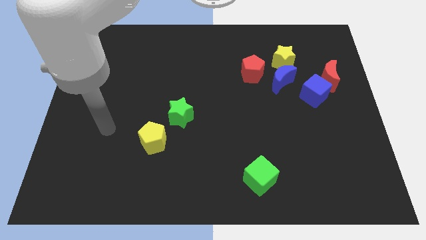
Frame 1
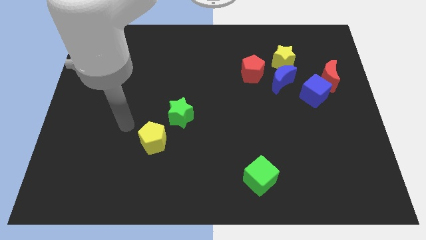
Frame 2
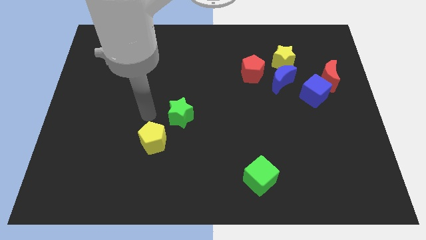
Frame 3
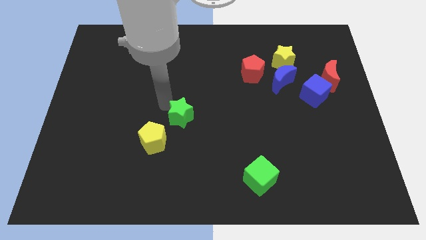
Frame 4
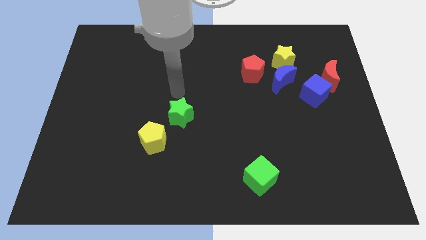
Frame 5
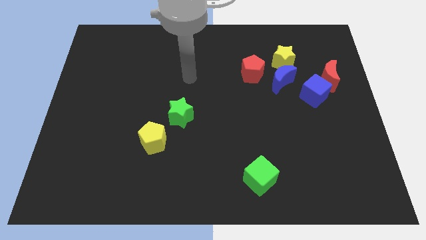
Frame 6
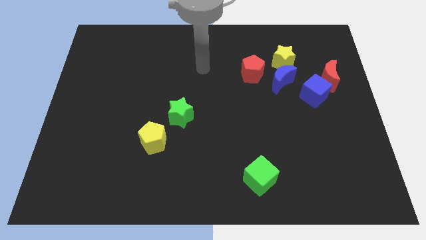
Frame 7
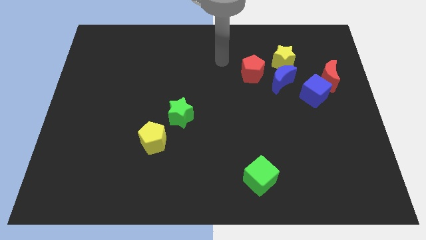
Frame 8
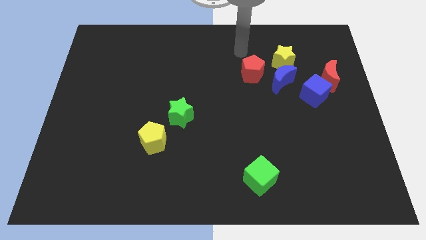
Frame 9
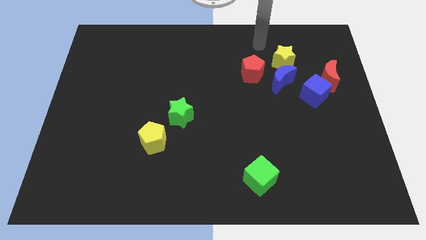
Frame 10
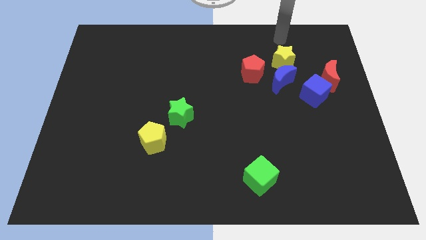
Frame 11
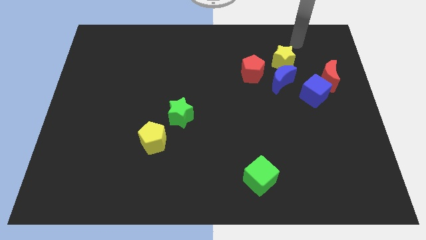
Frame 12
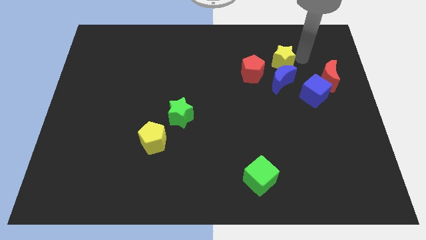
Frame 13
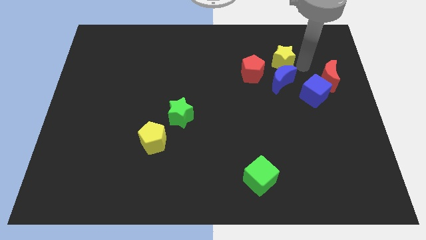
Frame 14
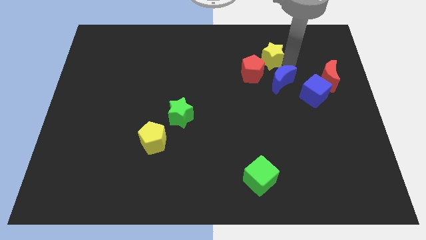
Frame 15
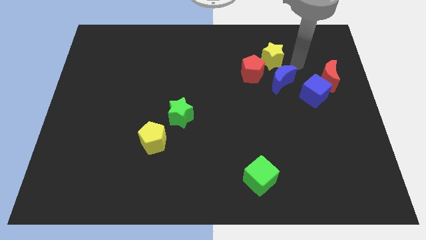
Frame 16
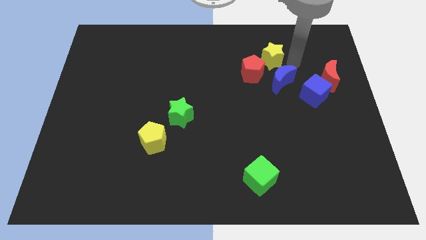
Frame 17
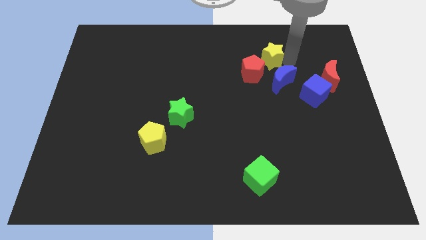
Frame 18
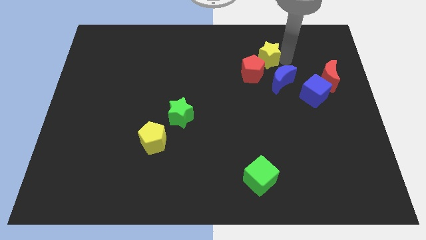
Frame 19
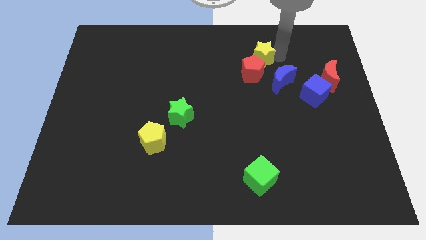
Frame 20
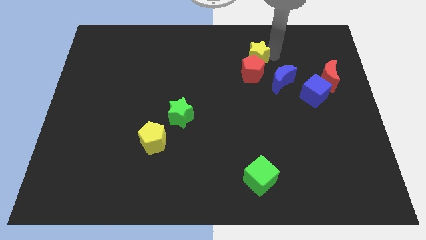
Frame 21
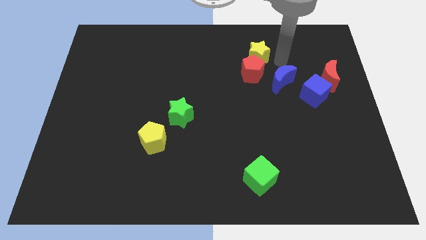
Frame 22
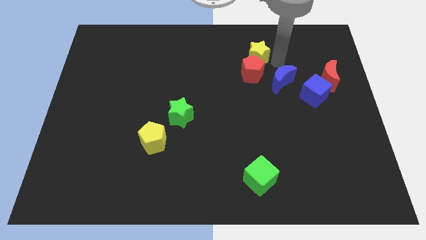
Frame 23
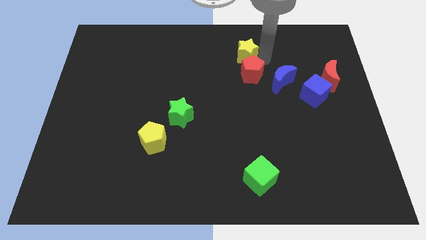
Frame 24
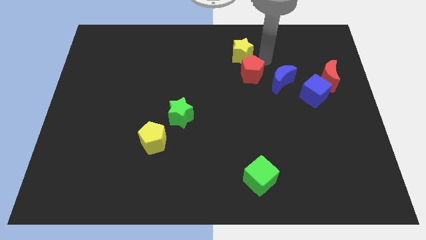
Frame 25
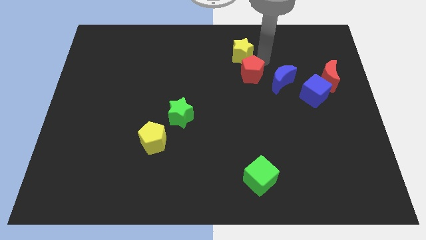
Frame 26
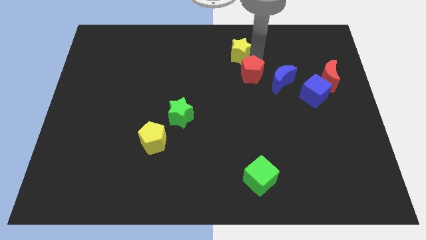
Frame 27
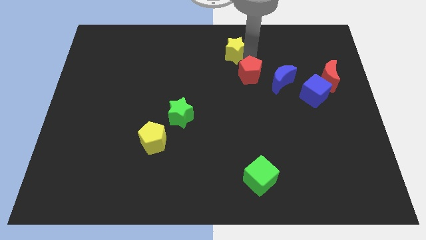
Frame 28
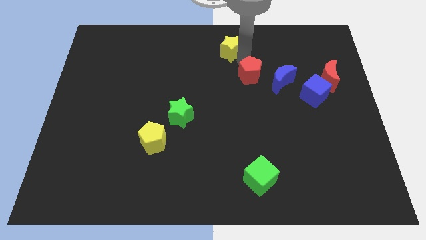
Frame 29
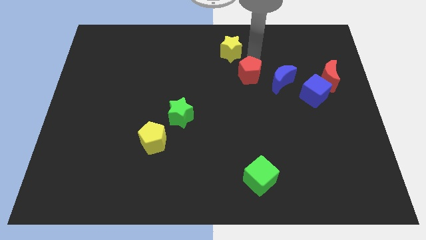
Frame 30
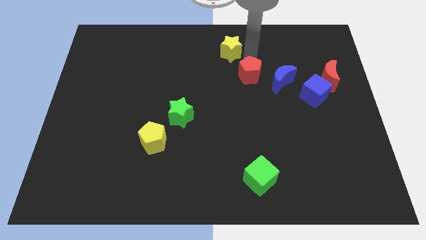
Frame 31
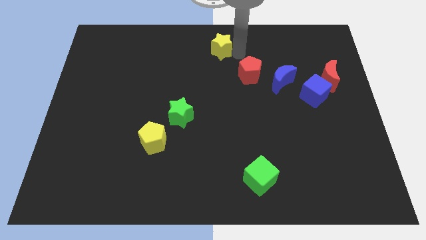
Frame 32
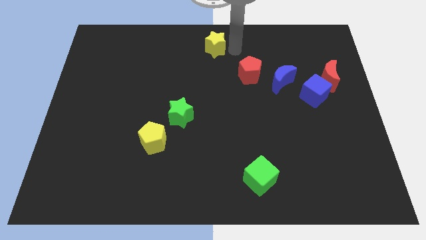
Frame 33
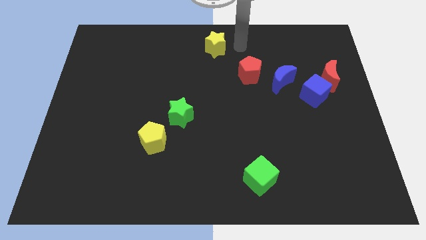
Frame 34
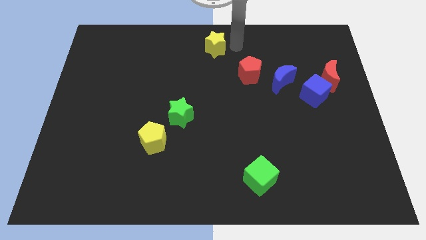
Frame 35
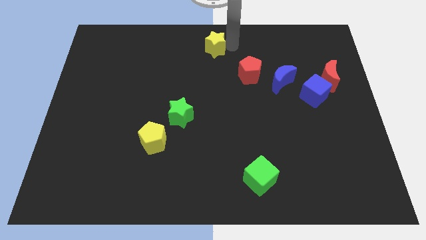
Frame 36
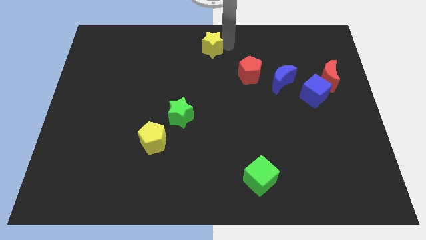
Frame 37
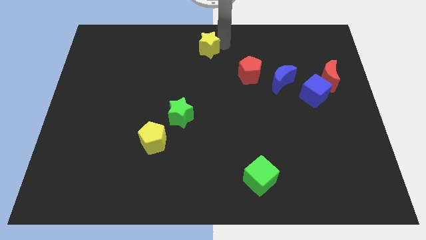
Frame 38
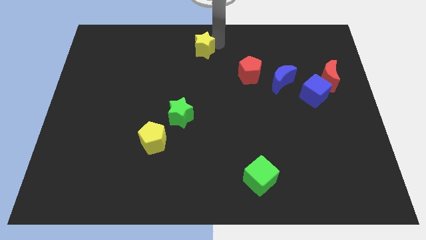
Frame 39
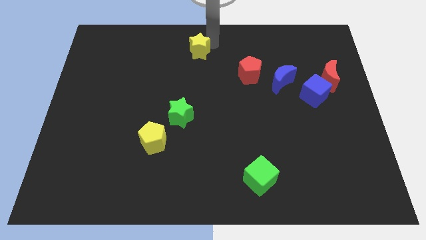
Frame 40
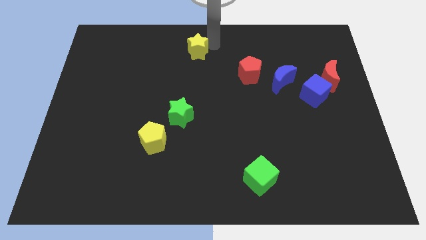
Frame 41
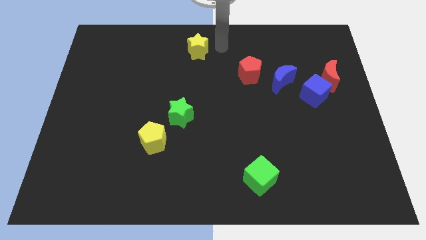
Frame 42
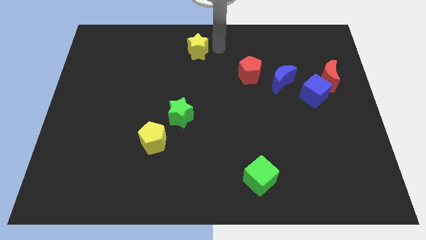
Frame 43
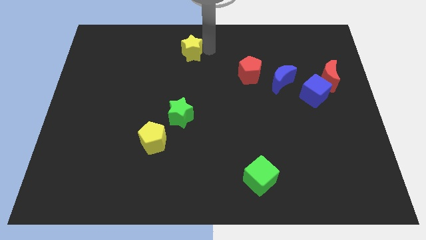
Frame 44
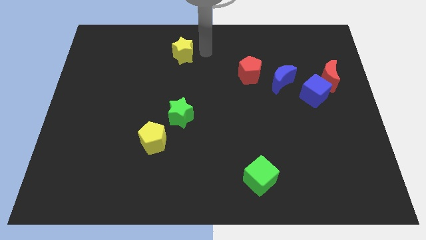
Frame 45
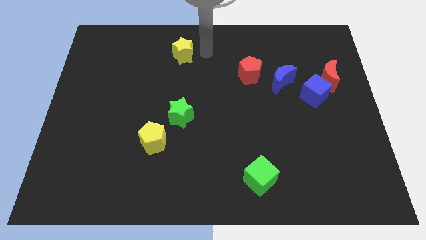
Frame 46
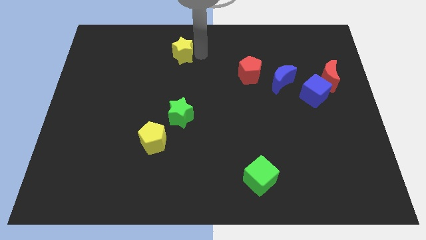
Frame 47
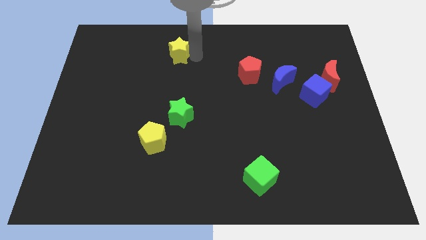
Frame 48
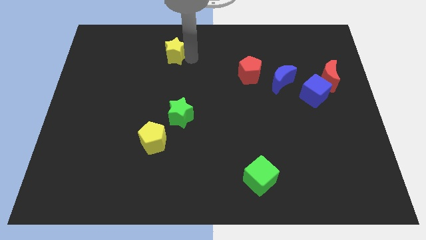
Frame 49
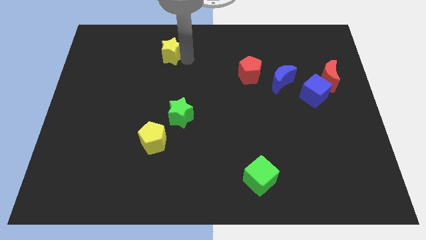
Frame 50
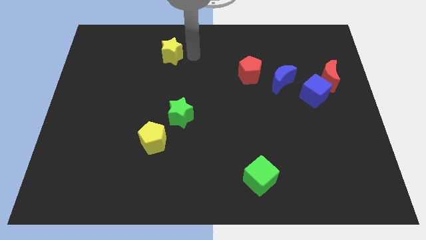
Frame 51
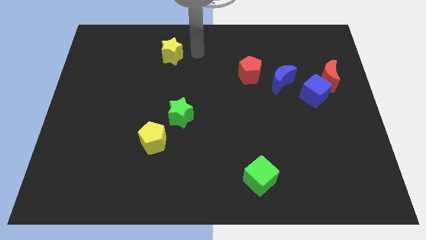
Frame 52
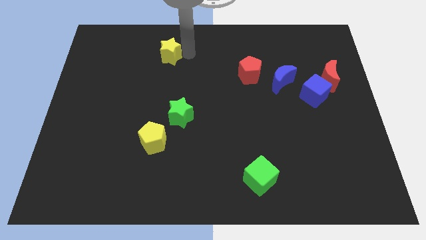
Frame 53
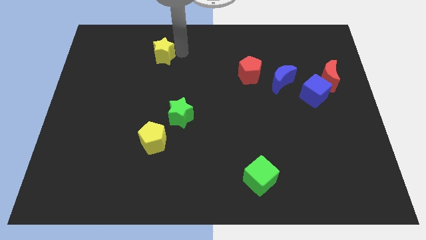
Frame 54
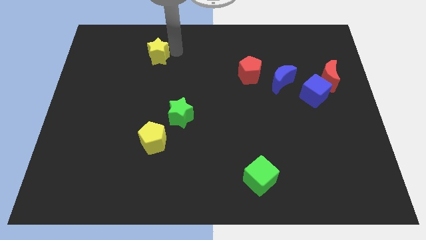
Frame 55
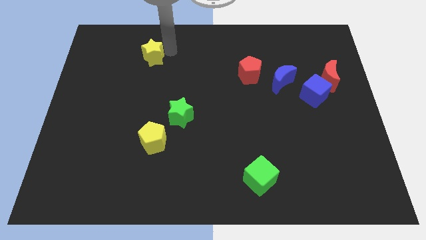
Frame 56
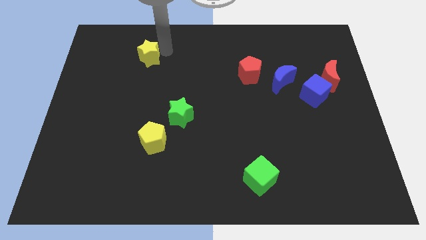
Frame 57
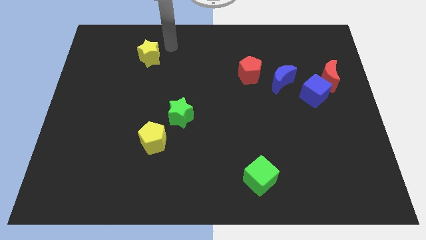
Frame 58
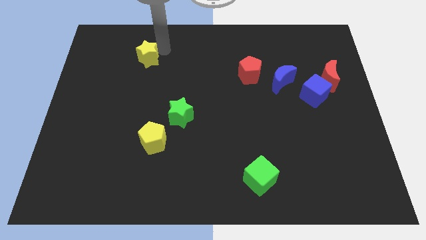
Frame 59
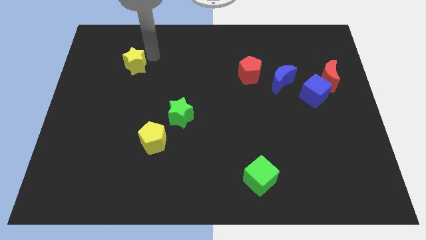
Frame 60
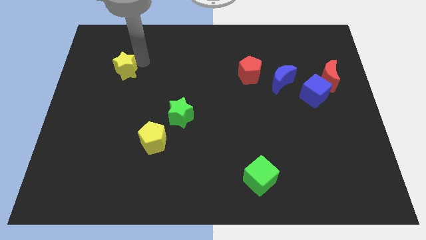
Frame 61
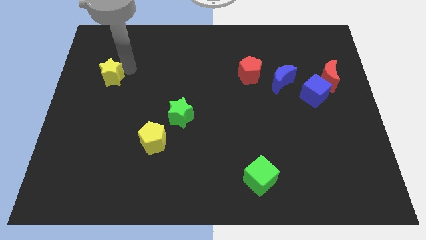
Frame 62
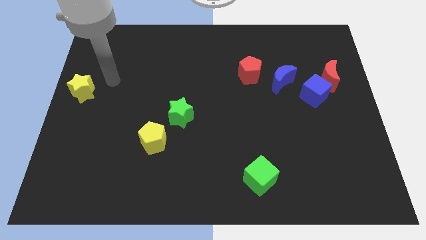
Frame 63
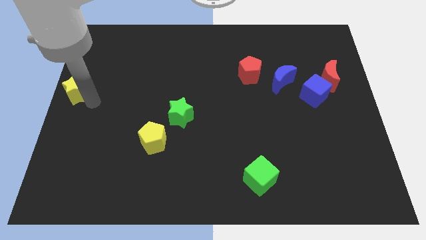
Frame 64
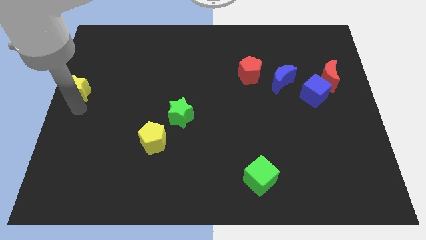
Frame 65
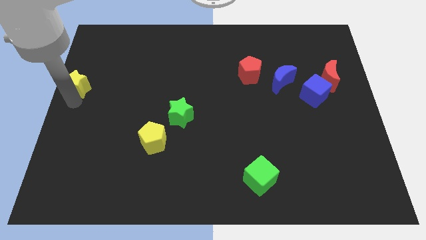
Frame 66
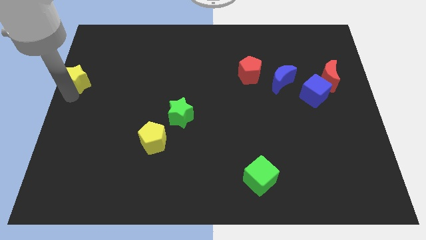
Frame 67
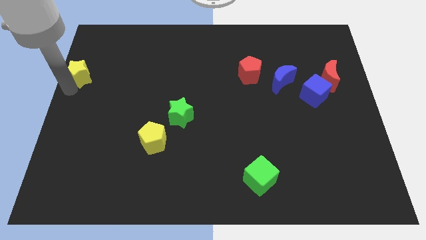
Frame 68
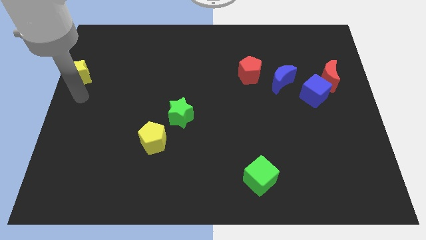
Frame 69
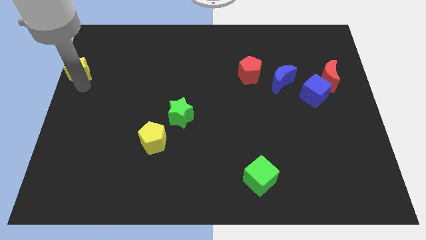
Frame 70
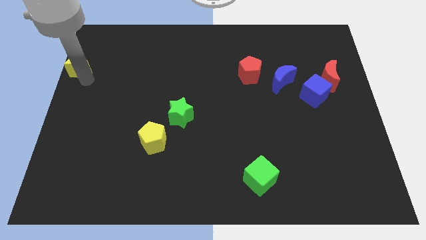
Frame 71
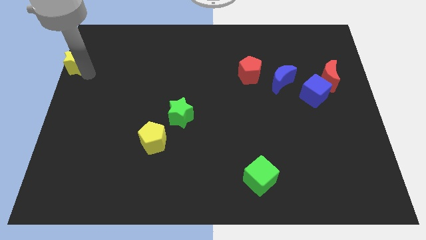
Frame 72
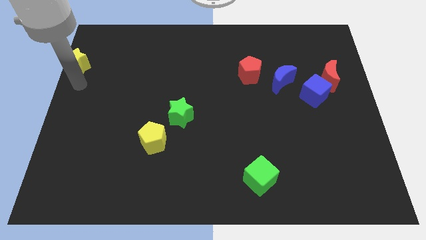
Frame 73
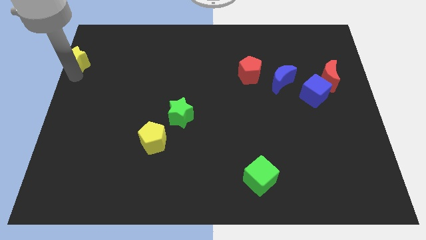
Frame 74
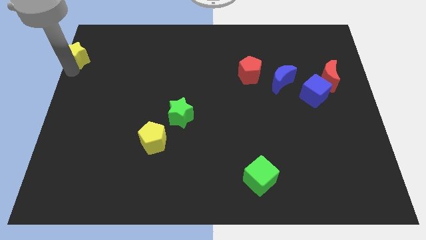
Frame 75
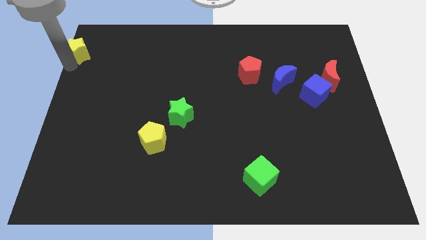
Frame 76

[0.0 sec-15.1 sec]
push the yellow star to the upper left corner
